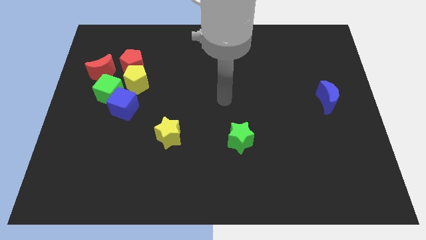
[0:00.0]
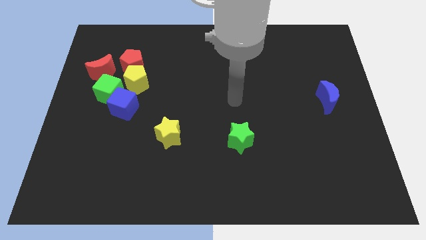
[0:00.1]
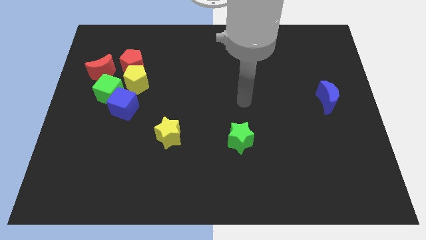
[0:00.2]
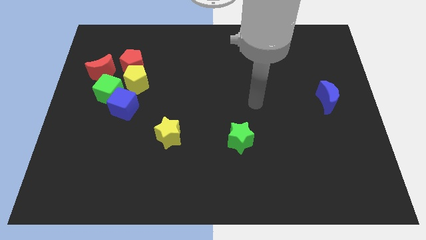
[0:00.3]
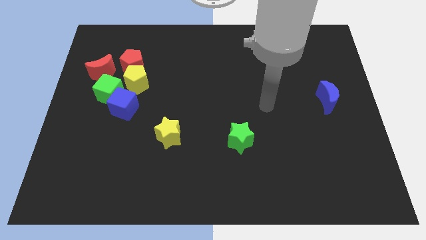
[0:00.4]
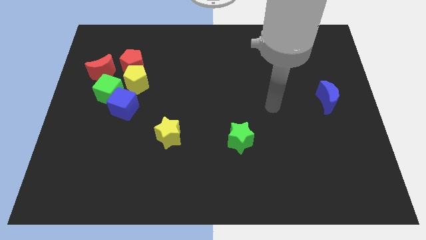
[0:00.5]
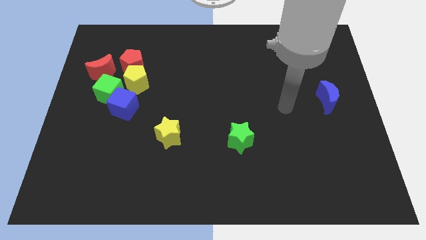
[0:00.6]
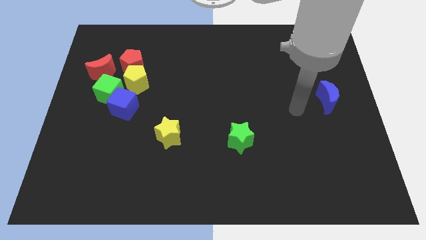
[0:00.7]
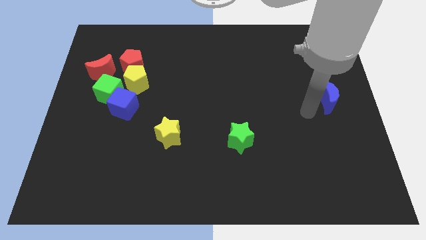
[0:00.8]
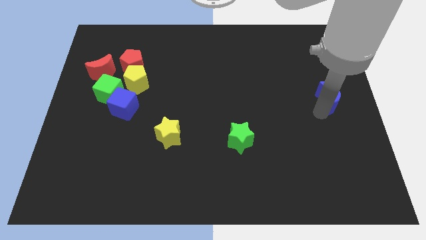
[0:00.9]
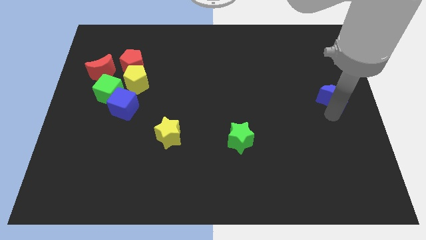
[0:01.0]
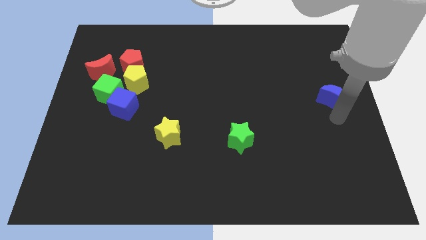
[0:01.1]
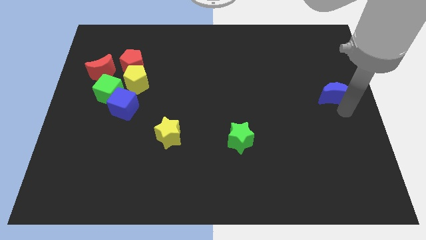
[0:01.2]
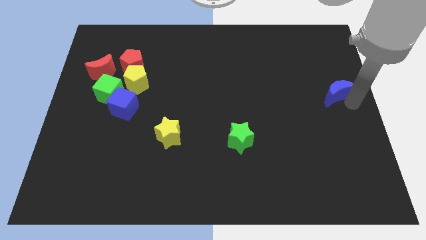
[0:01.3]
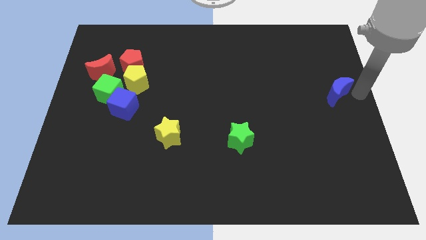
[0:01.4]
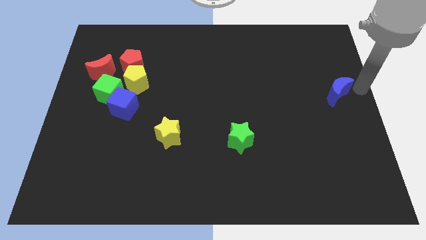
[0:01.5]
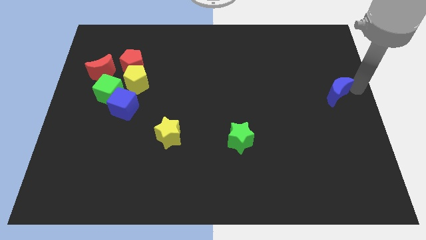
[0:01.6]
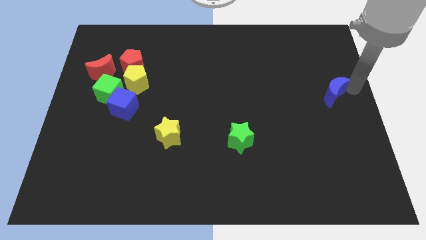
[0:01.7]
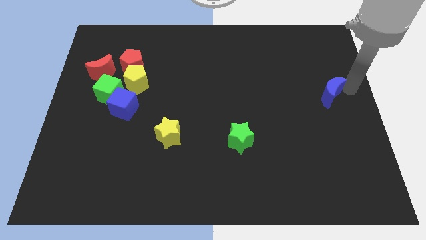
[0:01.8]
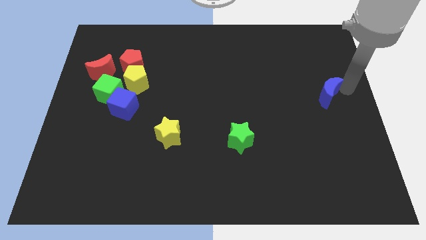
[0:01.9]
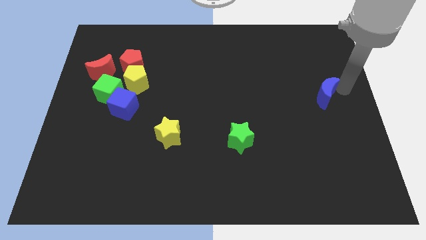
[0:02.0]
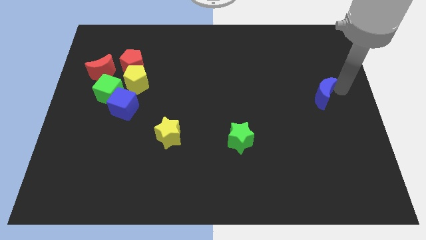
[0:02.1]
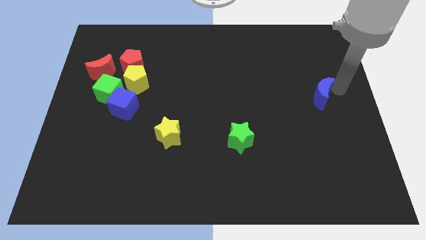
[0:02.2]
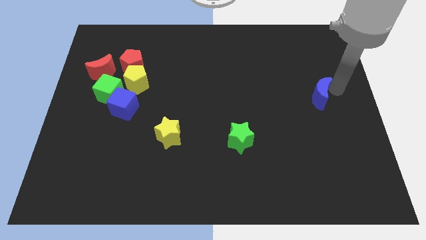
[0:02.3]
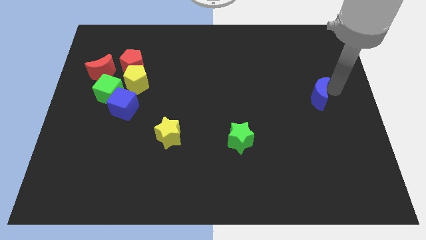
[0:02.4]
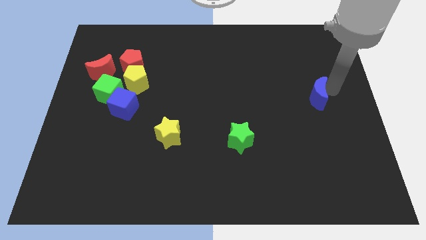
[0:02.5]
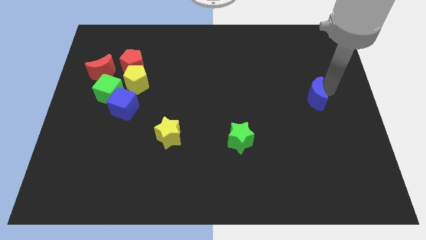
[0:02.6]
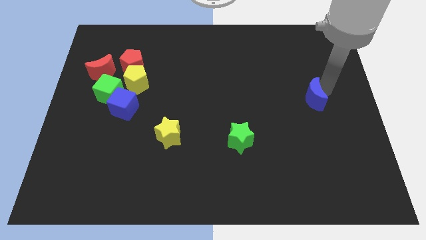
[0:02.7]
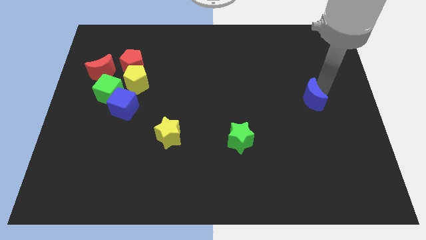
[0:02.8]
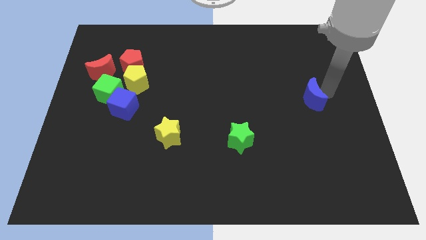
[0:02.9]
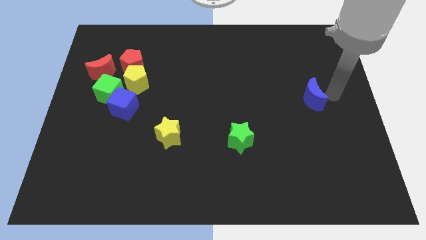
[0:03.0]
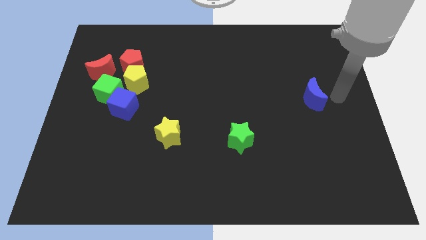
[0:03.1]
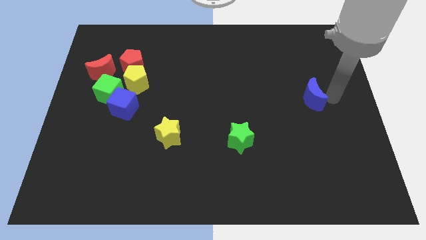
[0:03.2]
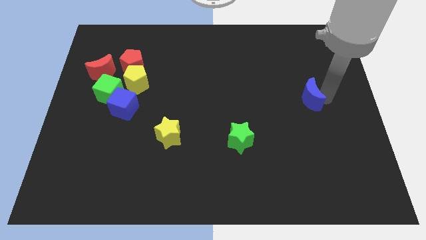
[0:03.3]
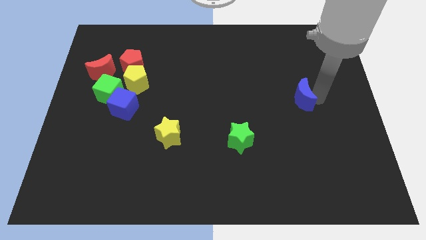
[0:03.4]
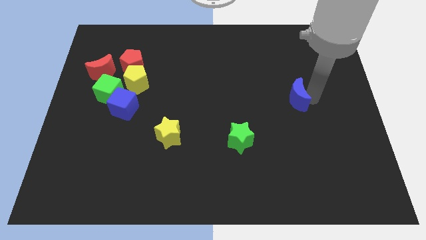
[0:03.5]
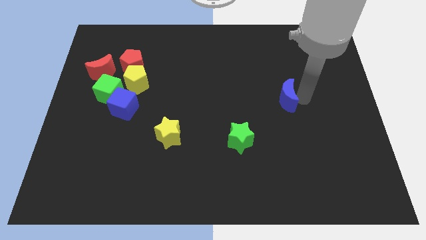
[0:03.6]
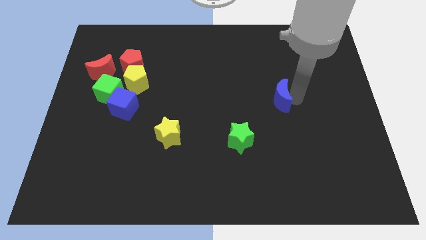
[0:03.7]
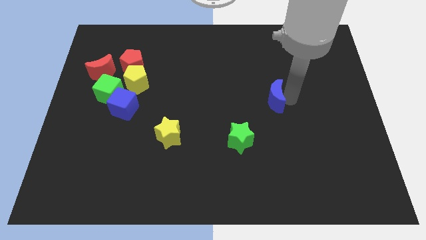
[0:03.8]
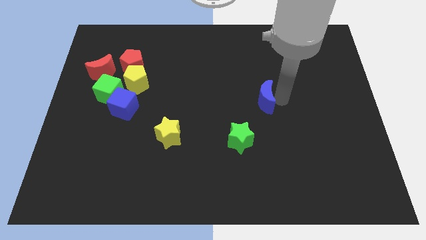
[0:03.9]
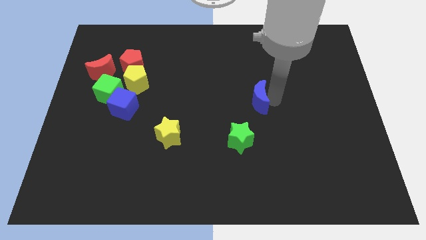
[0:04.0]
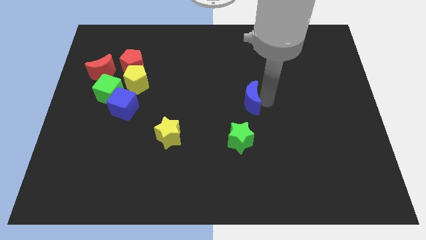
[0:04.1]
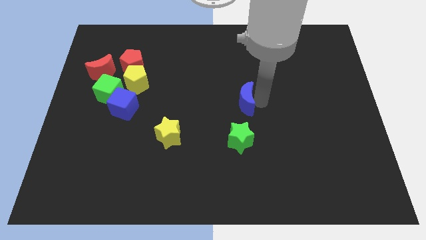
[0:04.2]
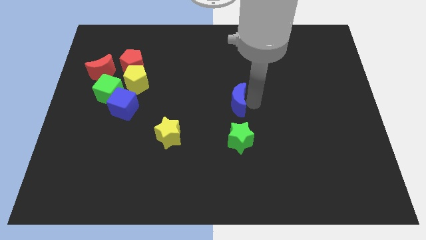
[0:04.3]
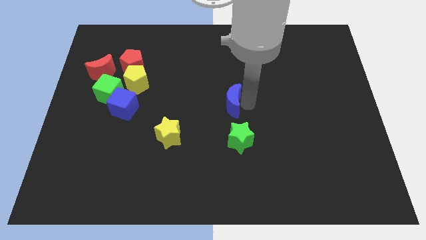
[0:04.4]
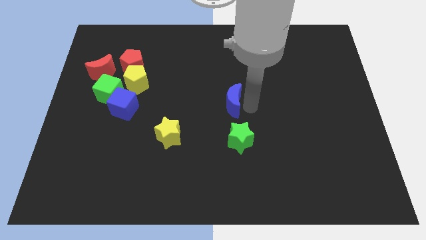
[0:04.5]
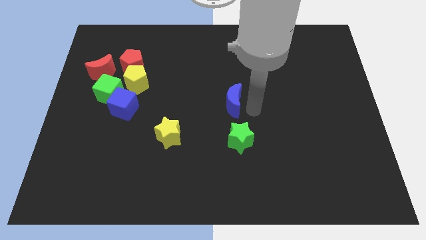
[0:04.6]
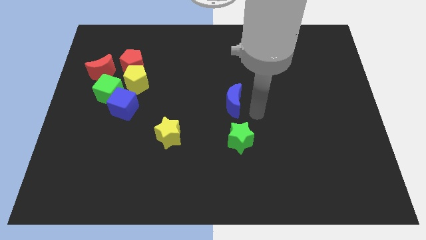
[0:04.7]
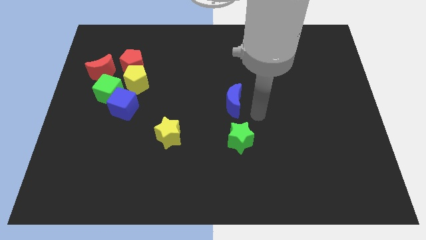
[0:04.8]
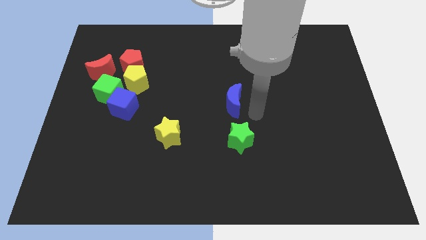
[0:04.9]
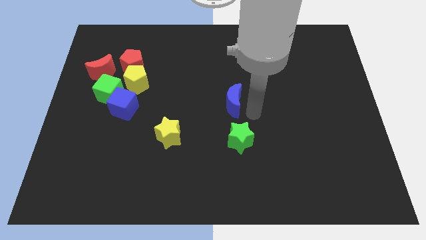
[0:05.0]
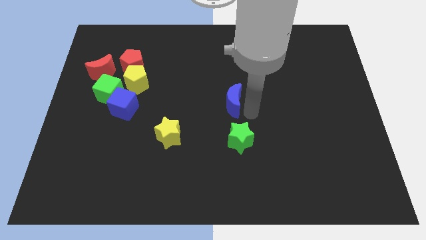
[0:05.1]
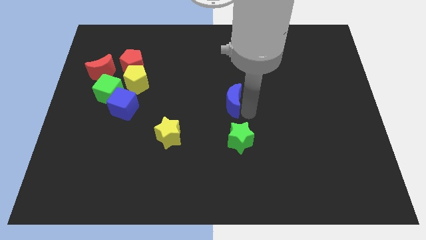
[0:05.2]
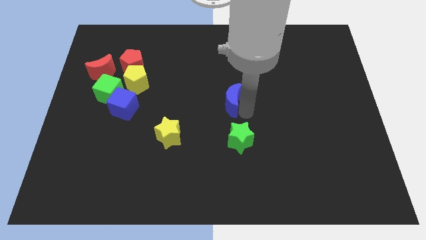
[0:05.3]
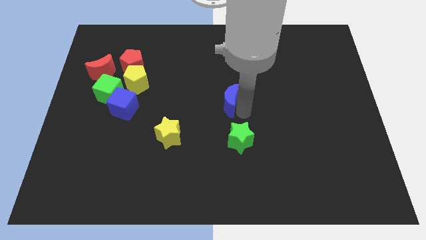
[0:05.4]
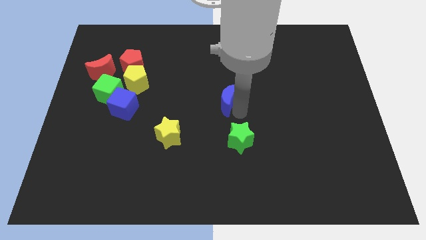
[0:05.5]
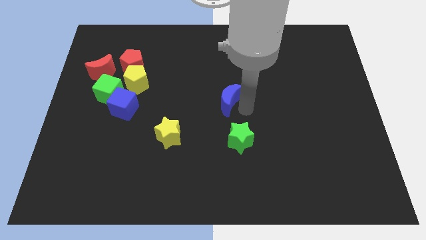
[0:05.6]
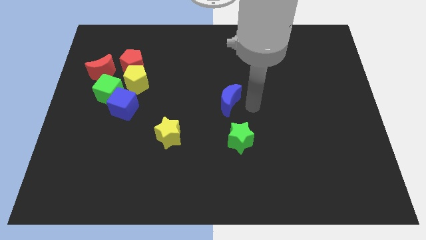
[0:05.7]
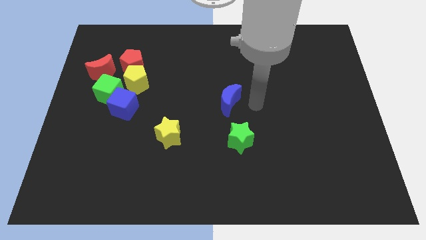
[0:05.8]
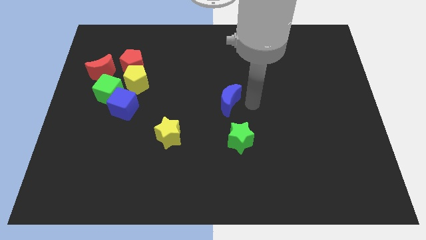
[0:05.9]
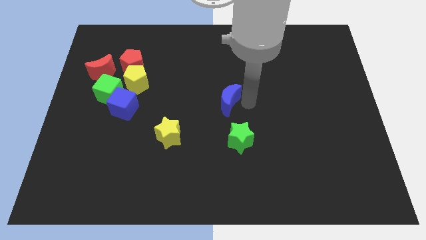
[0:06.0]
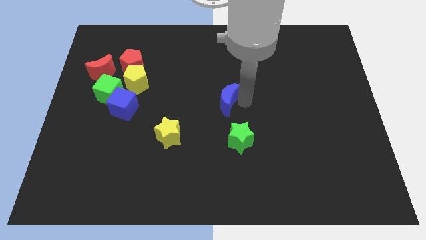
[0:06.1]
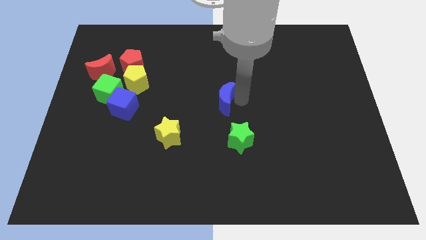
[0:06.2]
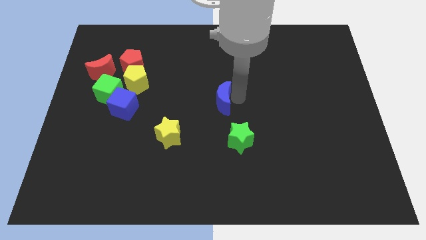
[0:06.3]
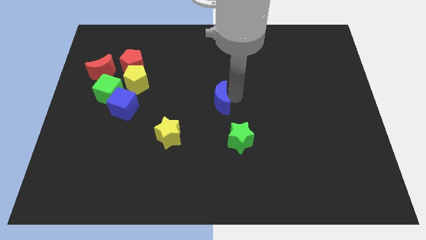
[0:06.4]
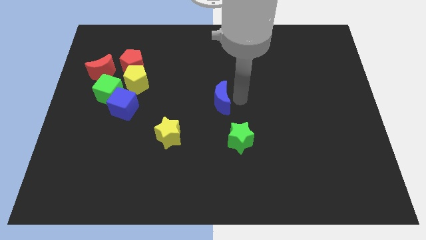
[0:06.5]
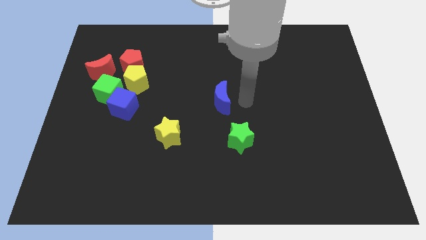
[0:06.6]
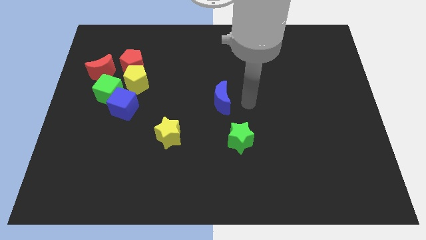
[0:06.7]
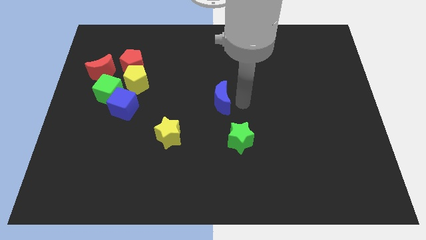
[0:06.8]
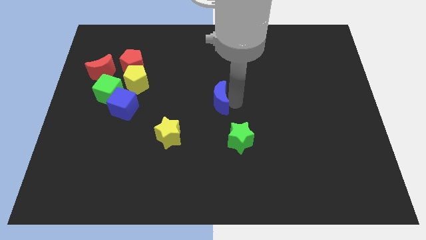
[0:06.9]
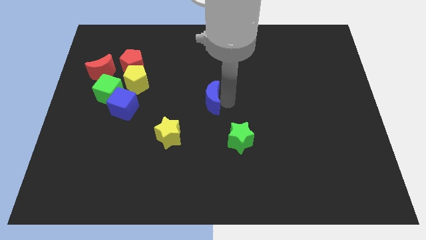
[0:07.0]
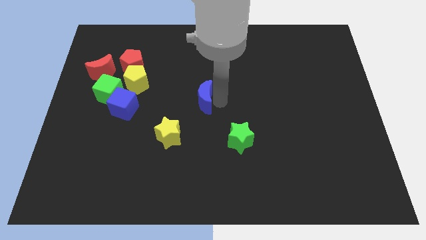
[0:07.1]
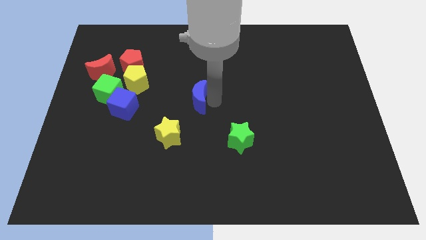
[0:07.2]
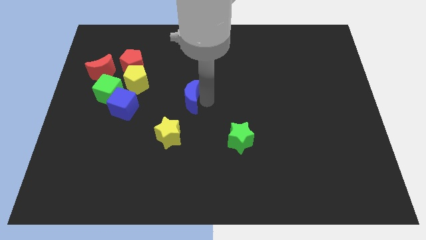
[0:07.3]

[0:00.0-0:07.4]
put the blue moon above the yellow star

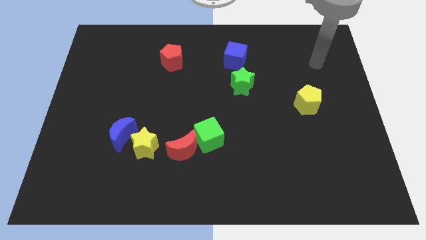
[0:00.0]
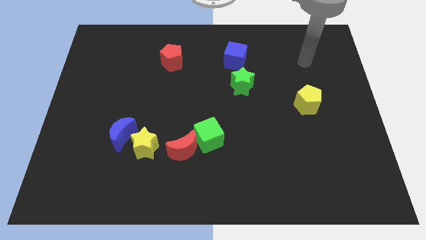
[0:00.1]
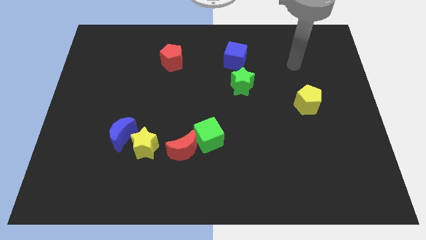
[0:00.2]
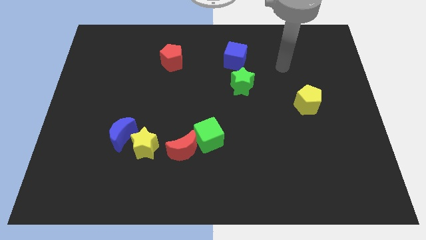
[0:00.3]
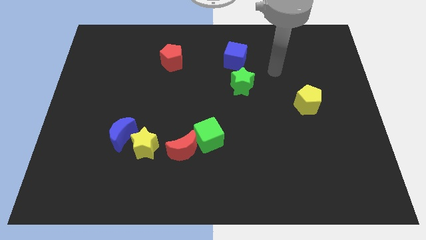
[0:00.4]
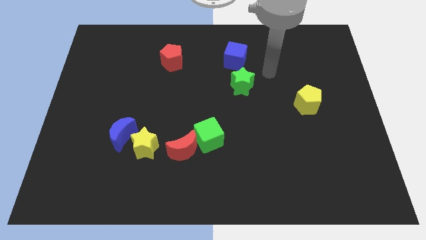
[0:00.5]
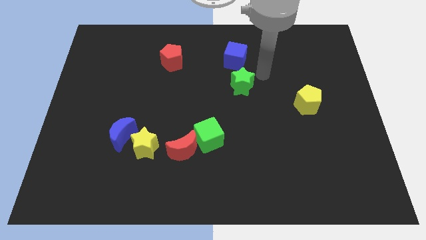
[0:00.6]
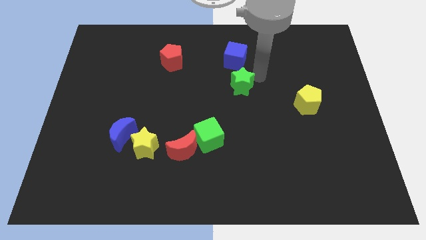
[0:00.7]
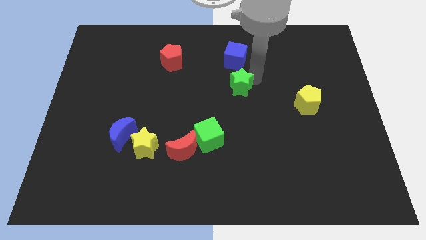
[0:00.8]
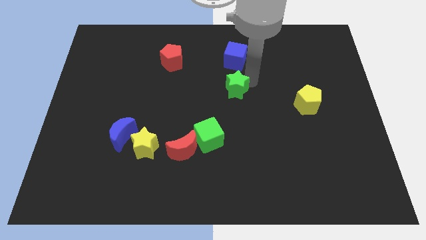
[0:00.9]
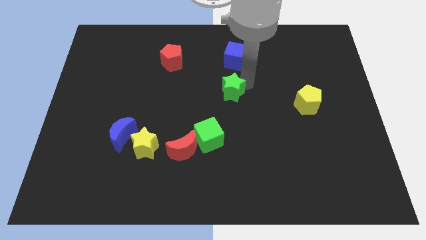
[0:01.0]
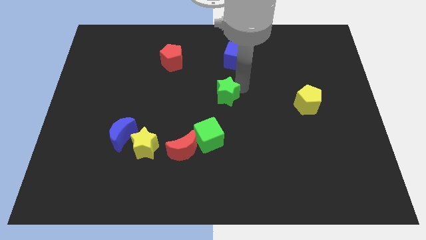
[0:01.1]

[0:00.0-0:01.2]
push the green star to the top side of the green cube
